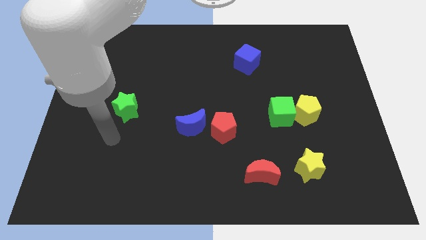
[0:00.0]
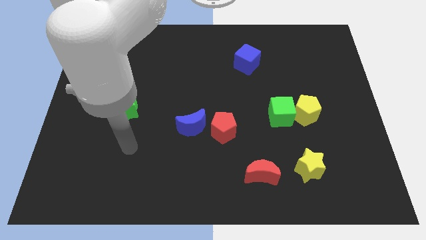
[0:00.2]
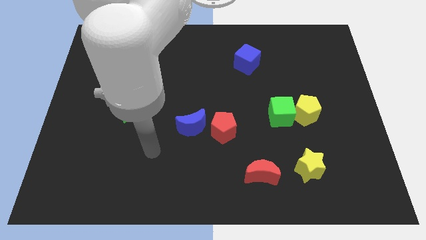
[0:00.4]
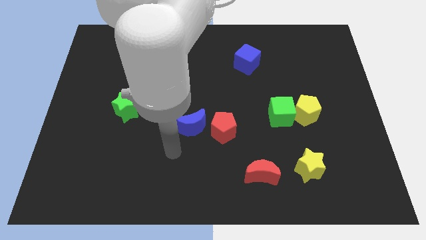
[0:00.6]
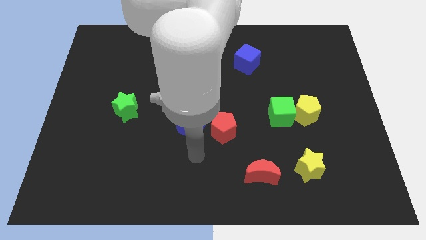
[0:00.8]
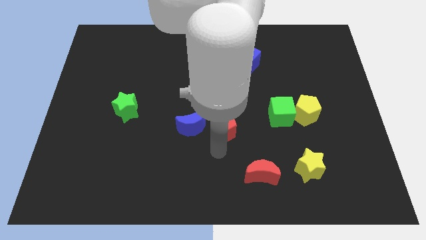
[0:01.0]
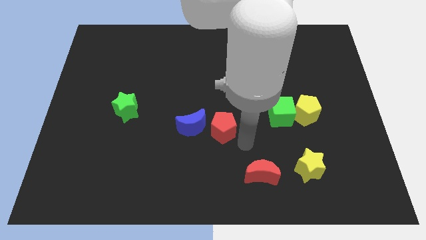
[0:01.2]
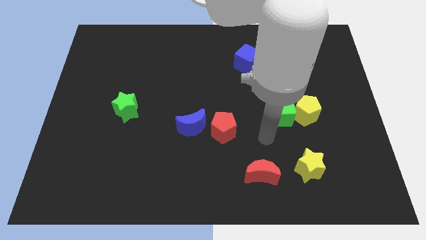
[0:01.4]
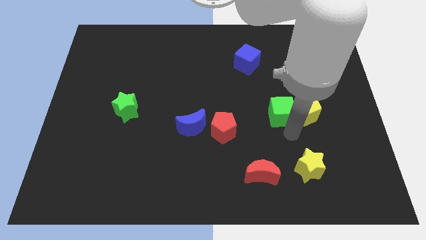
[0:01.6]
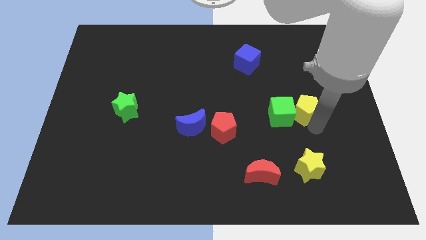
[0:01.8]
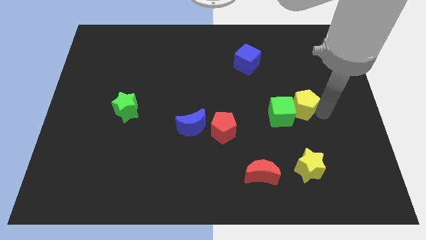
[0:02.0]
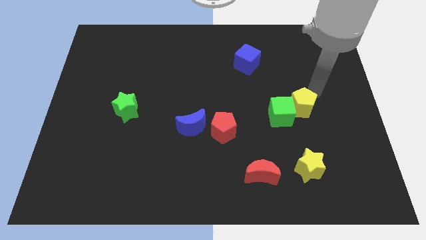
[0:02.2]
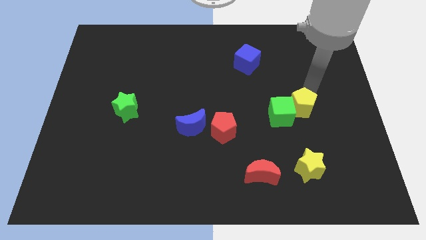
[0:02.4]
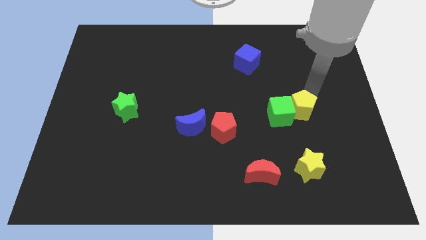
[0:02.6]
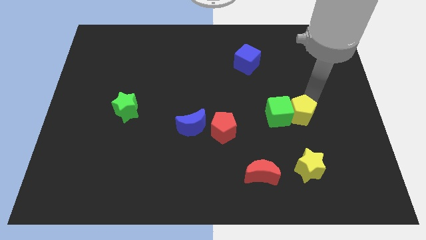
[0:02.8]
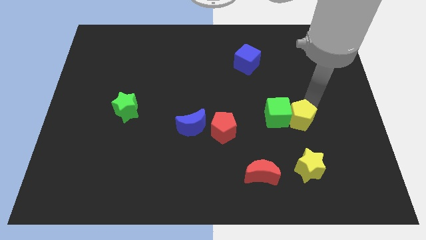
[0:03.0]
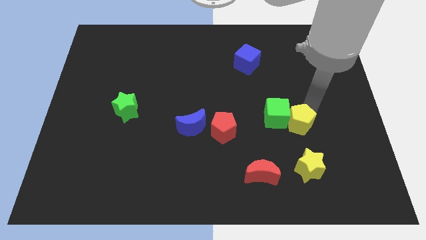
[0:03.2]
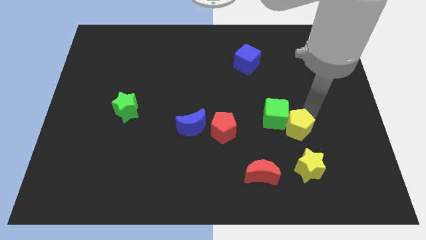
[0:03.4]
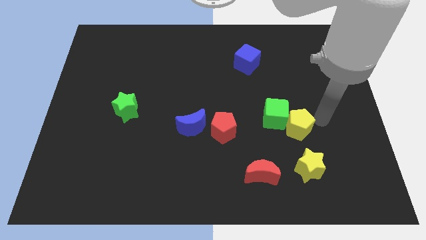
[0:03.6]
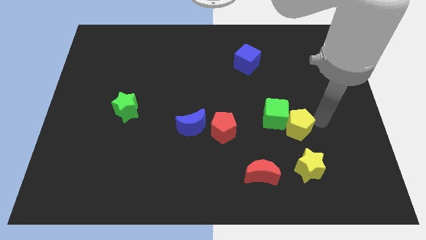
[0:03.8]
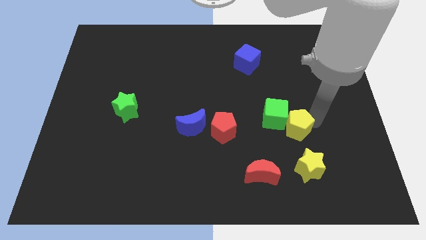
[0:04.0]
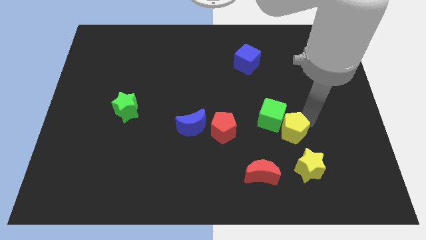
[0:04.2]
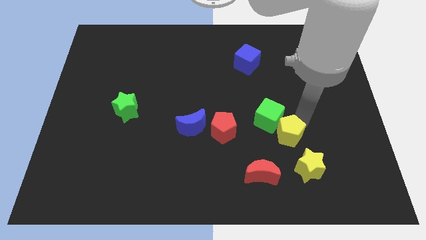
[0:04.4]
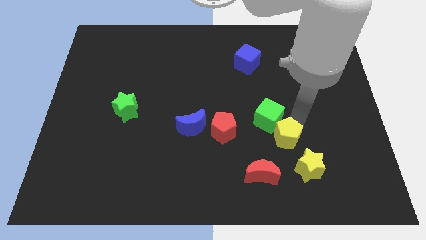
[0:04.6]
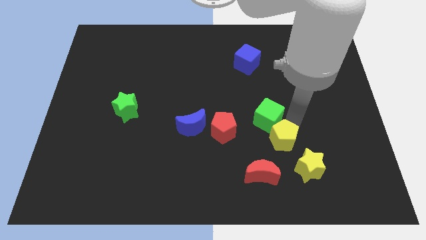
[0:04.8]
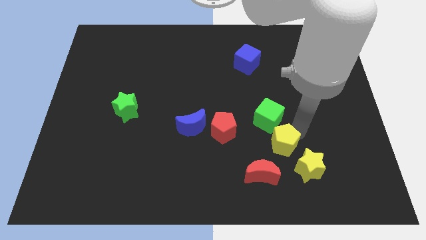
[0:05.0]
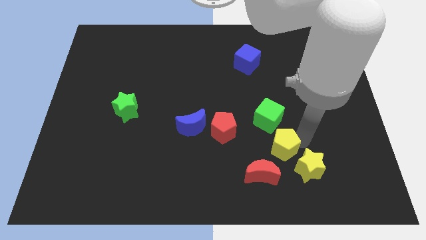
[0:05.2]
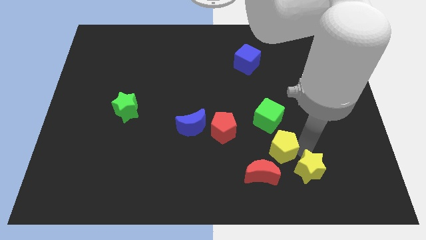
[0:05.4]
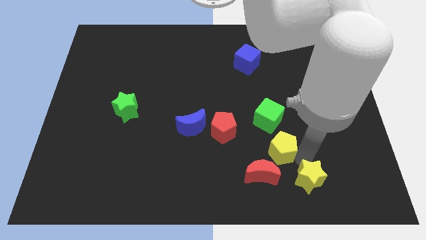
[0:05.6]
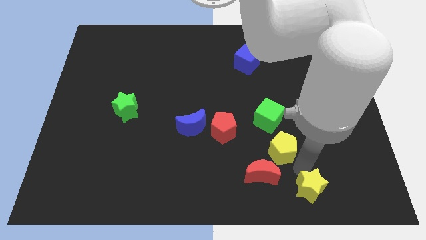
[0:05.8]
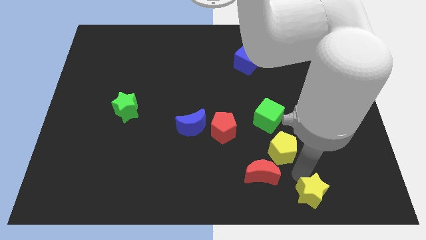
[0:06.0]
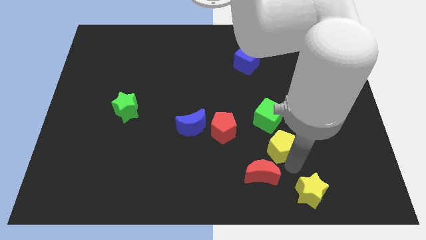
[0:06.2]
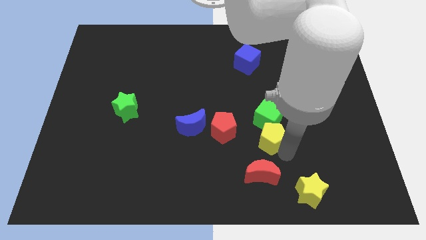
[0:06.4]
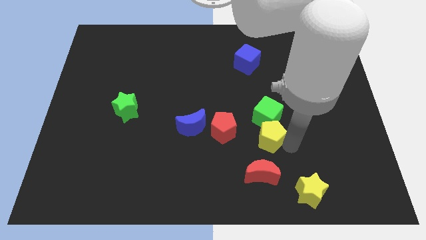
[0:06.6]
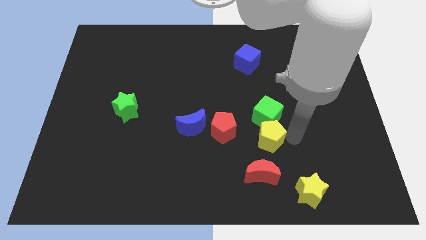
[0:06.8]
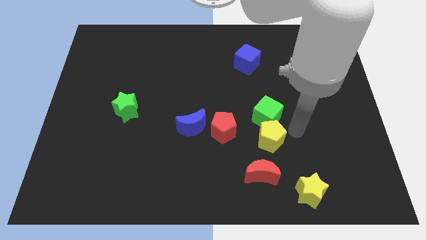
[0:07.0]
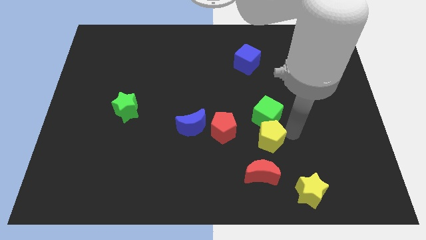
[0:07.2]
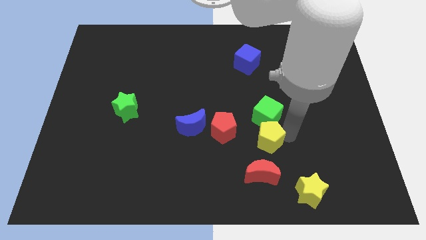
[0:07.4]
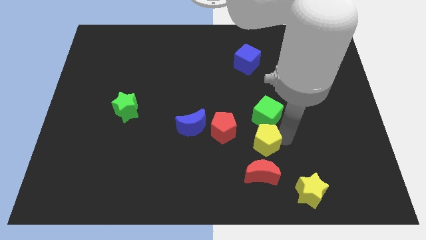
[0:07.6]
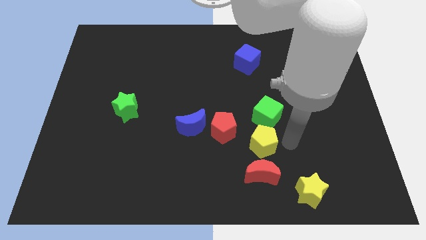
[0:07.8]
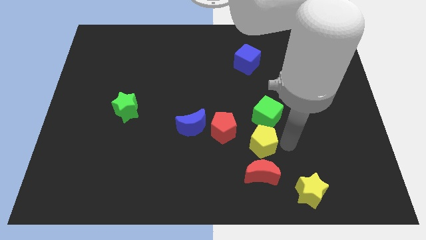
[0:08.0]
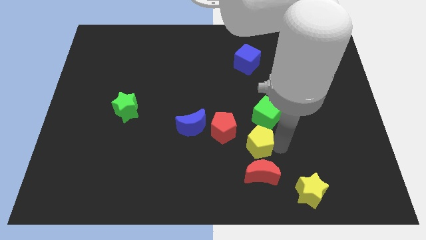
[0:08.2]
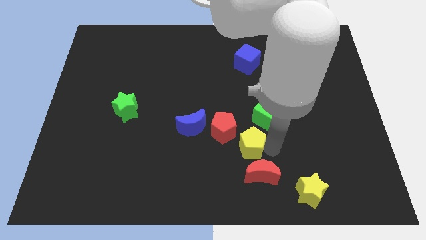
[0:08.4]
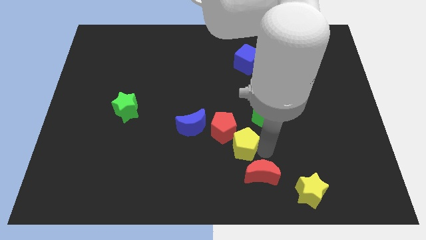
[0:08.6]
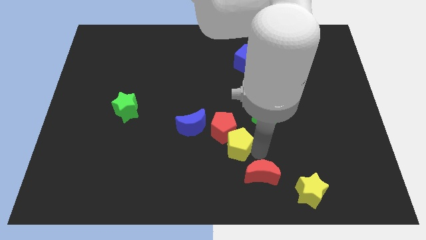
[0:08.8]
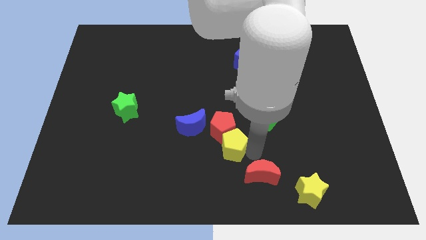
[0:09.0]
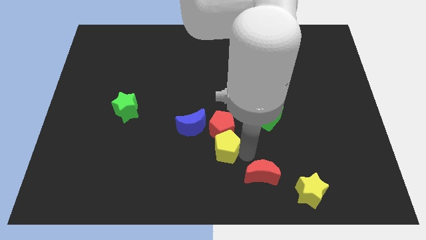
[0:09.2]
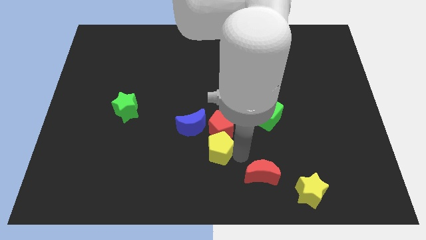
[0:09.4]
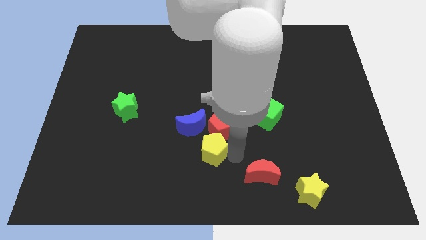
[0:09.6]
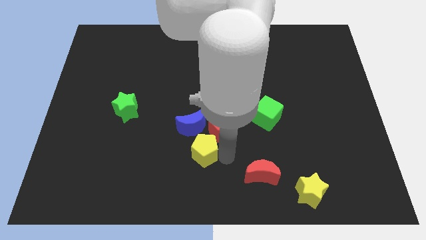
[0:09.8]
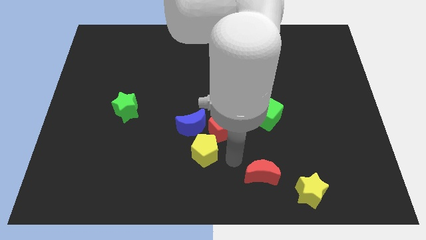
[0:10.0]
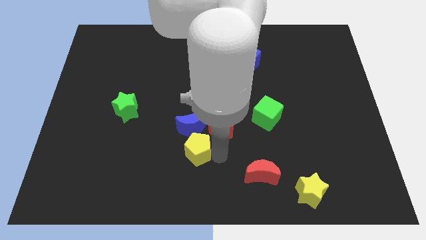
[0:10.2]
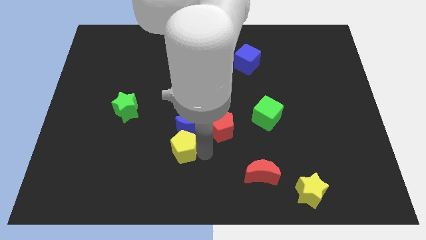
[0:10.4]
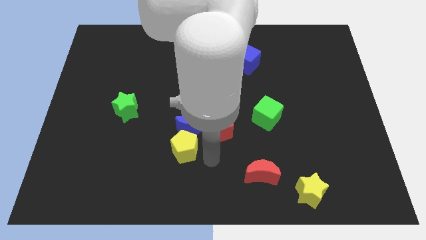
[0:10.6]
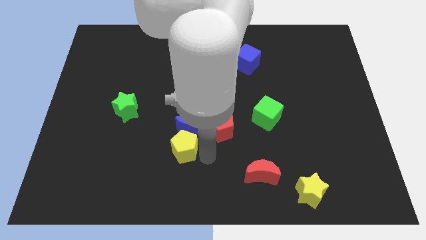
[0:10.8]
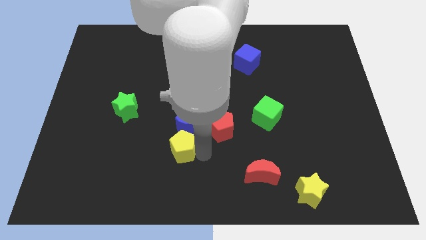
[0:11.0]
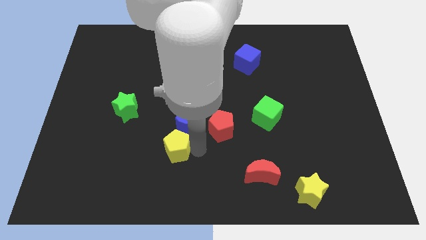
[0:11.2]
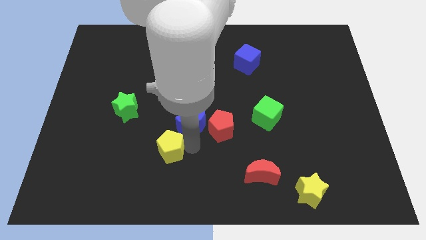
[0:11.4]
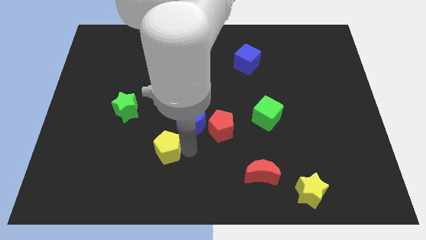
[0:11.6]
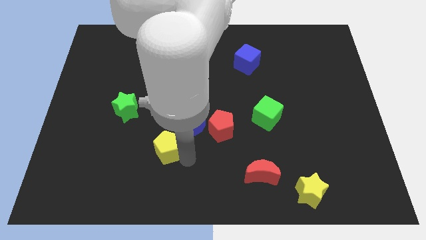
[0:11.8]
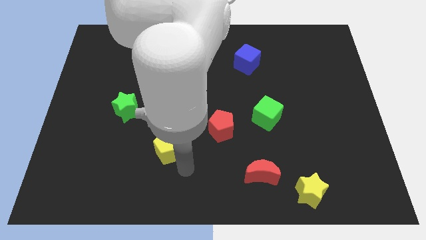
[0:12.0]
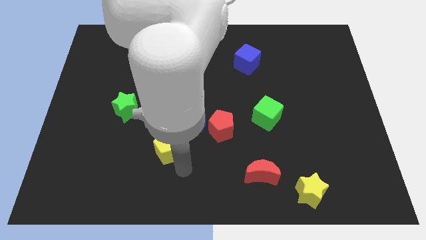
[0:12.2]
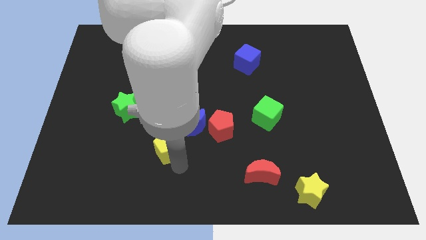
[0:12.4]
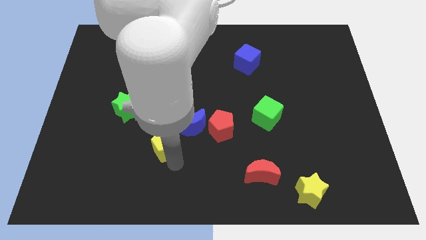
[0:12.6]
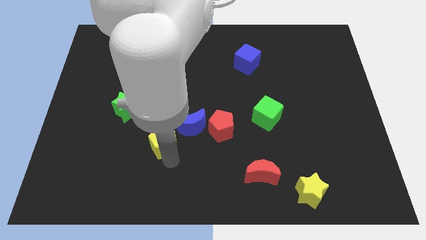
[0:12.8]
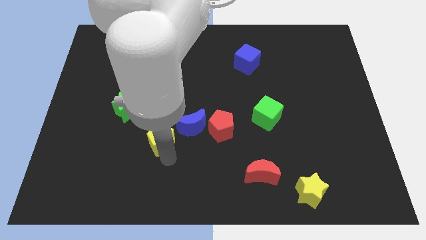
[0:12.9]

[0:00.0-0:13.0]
slide the yellow pentagon to the bottom right of the green star
